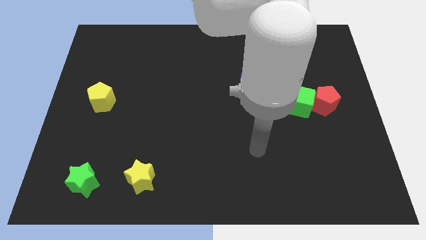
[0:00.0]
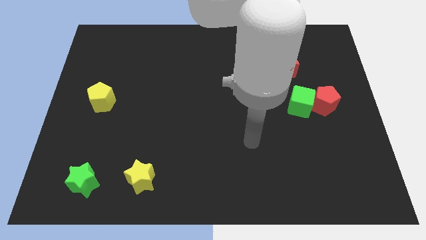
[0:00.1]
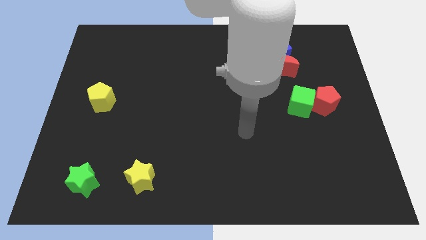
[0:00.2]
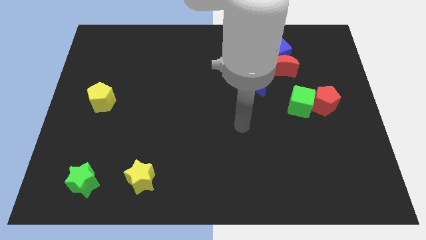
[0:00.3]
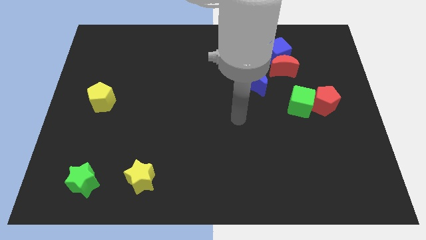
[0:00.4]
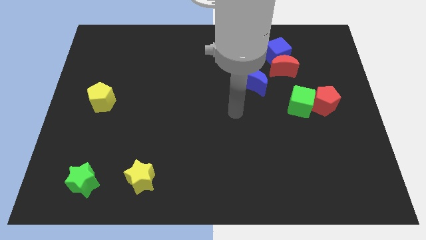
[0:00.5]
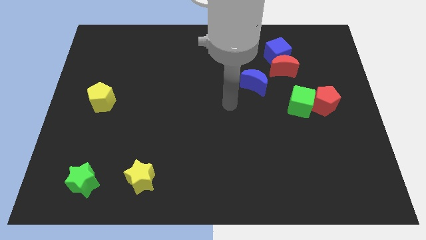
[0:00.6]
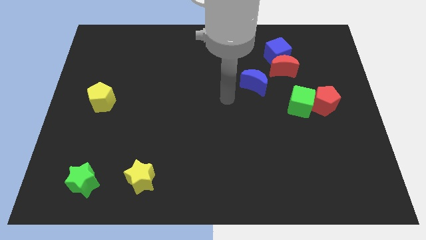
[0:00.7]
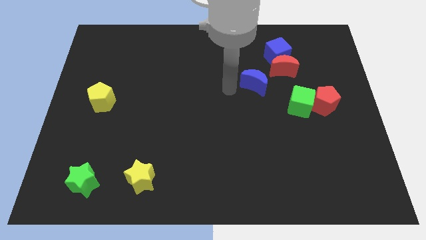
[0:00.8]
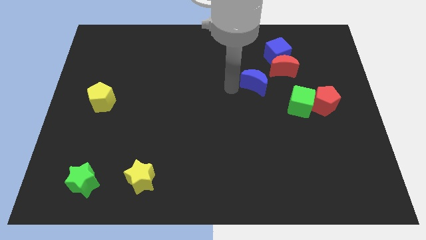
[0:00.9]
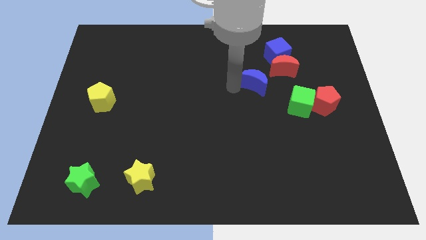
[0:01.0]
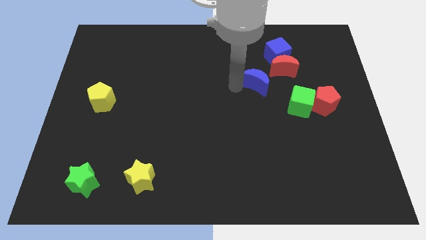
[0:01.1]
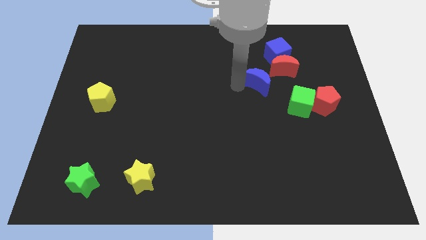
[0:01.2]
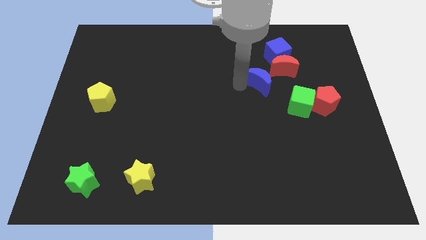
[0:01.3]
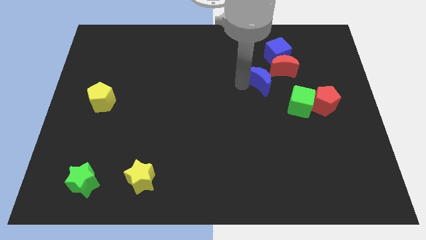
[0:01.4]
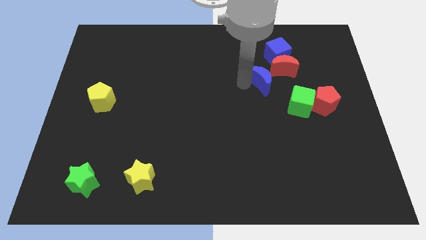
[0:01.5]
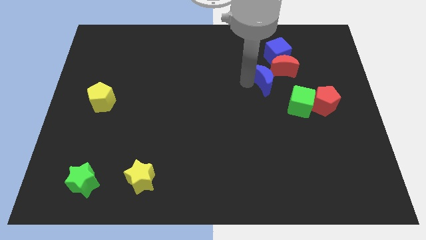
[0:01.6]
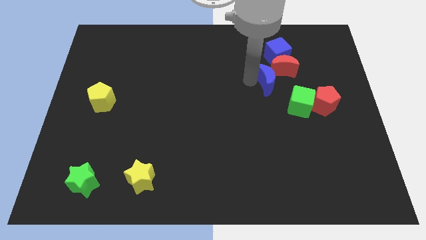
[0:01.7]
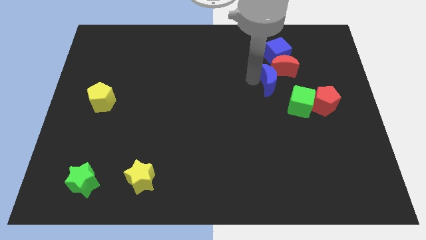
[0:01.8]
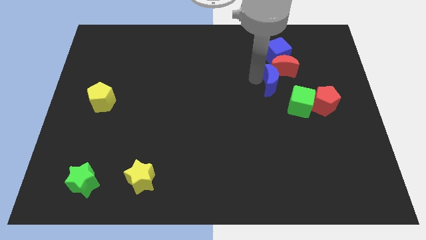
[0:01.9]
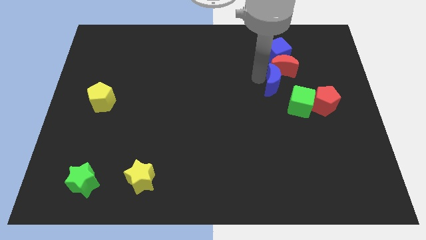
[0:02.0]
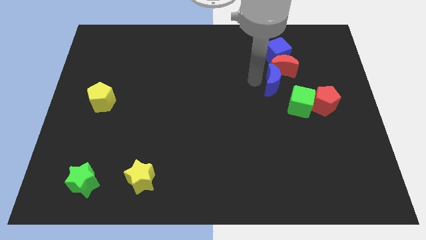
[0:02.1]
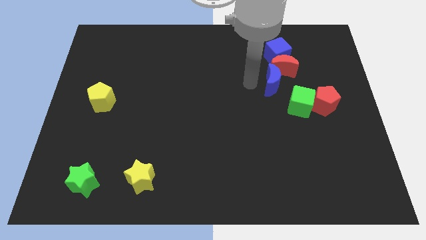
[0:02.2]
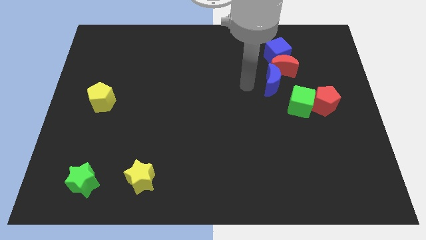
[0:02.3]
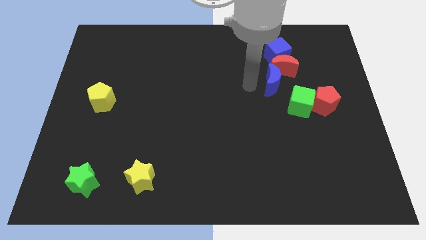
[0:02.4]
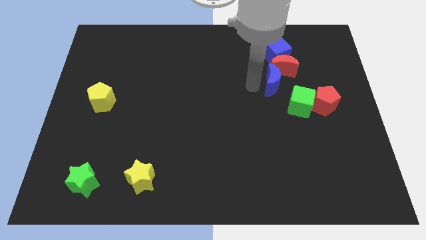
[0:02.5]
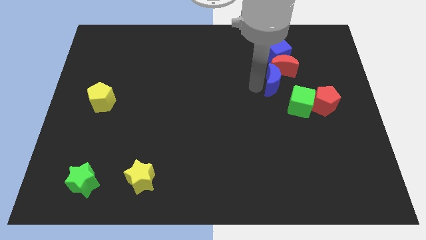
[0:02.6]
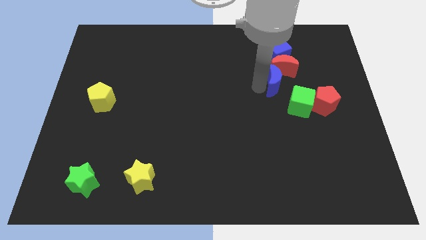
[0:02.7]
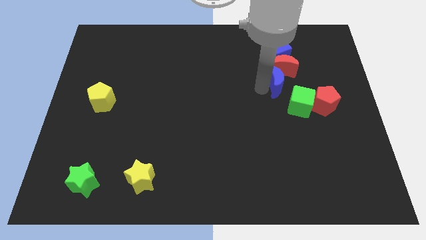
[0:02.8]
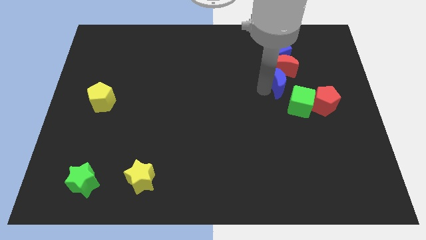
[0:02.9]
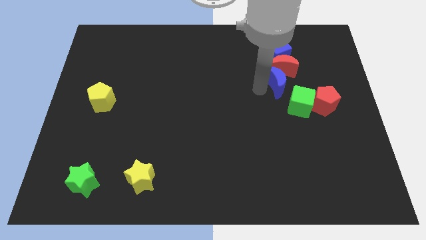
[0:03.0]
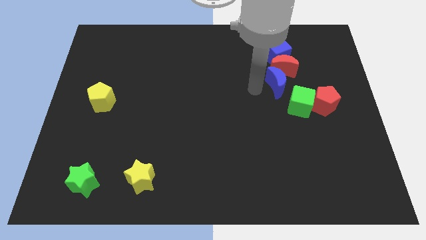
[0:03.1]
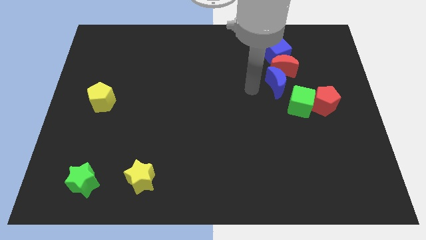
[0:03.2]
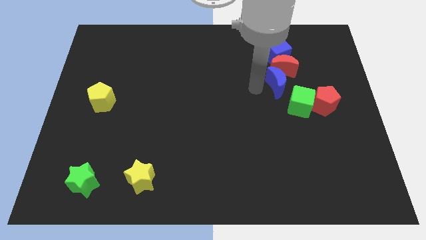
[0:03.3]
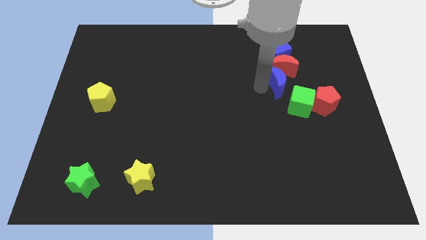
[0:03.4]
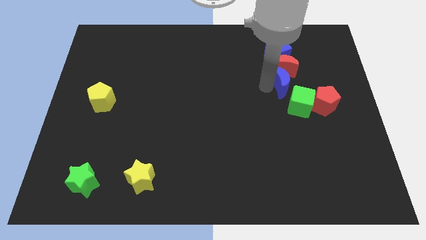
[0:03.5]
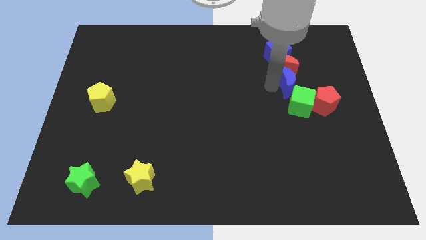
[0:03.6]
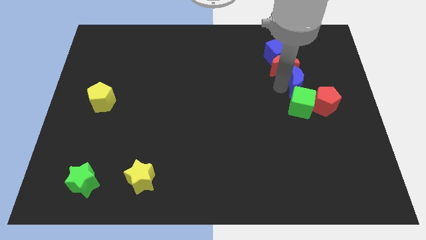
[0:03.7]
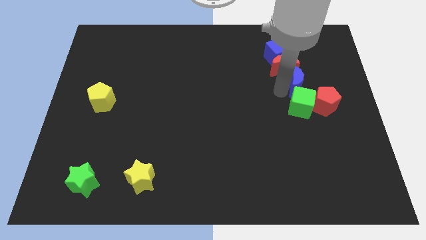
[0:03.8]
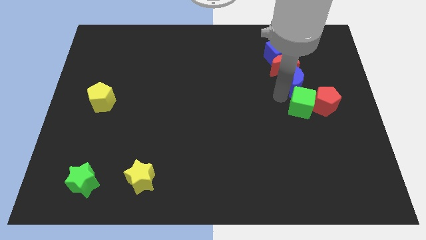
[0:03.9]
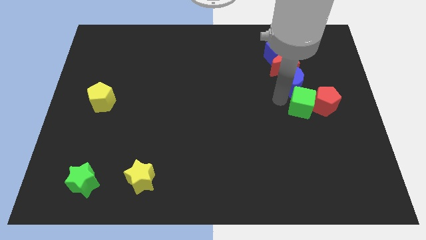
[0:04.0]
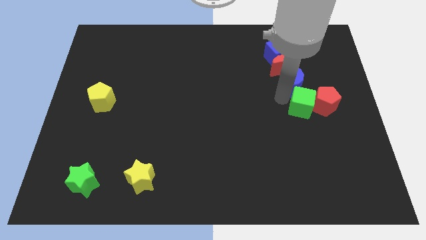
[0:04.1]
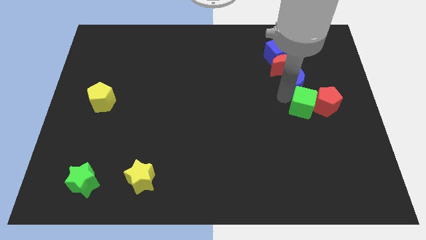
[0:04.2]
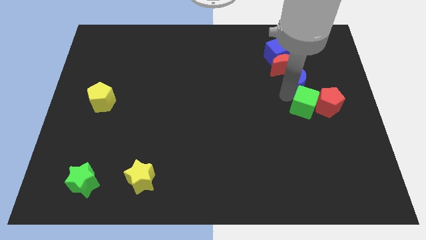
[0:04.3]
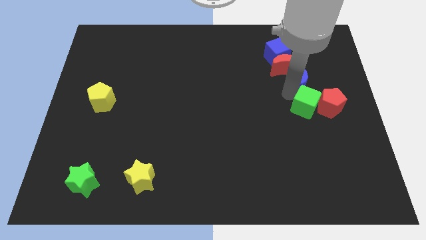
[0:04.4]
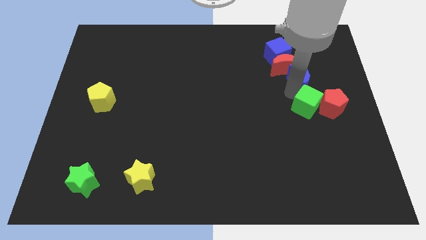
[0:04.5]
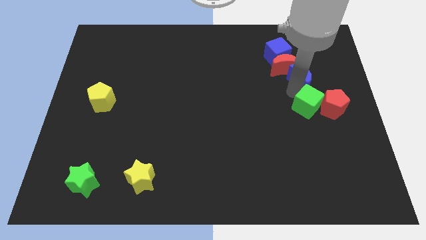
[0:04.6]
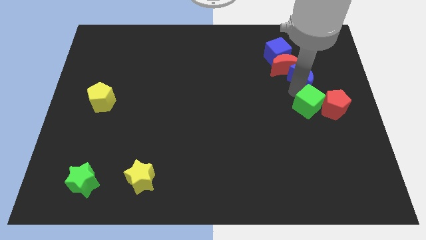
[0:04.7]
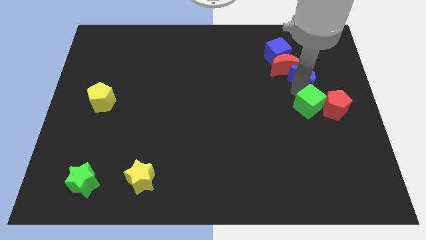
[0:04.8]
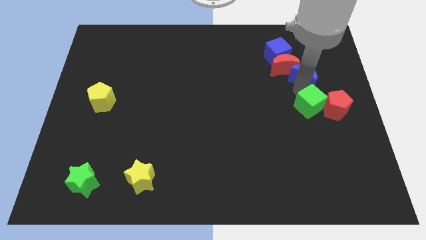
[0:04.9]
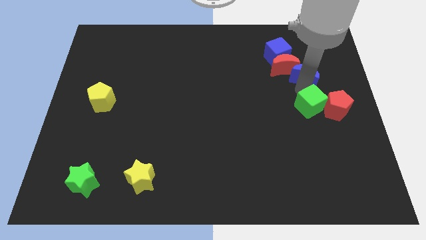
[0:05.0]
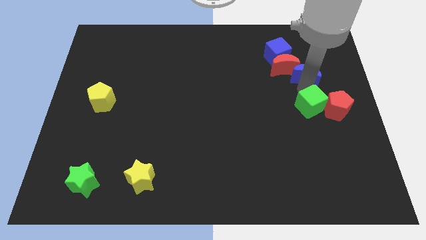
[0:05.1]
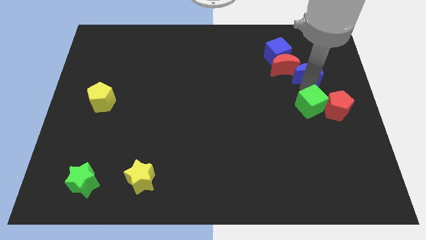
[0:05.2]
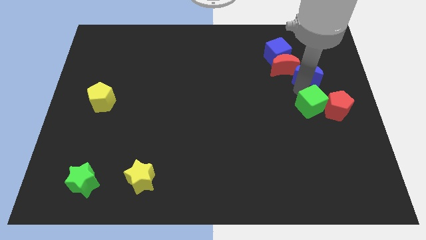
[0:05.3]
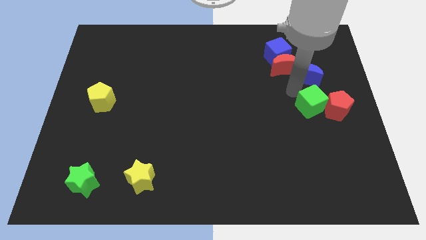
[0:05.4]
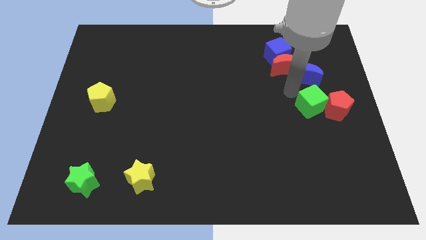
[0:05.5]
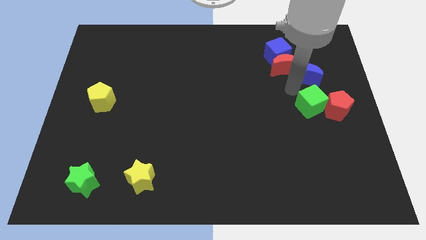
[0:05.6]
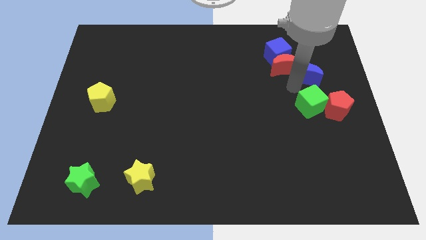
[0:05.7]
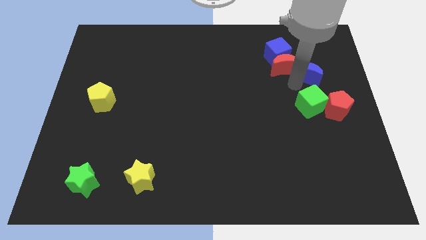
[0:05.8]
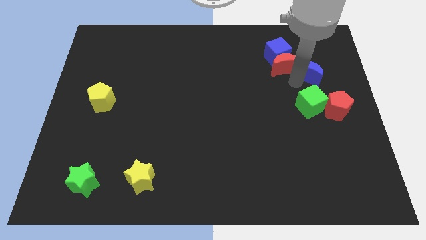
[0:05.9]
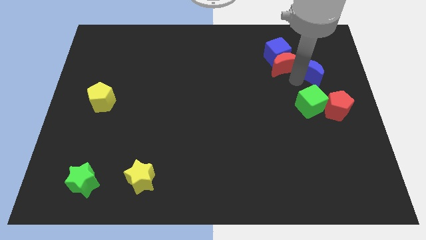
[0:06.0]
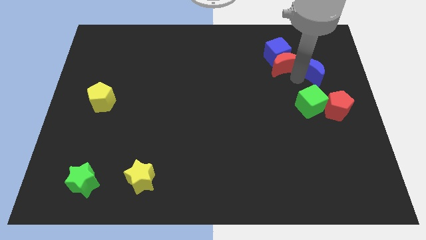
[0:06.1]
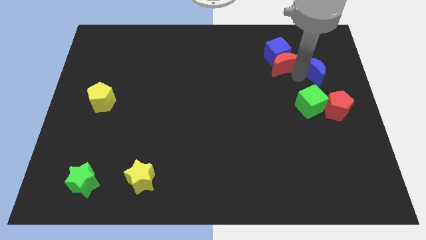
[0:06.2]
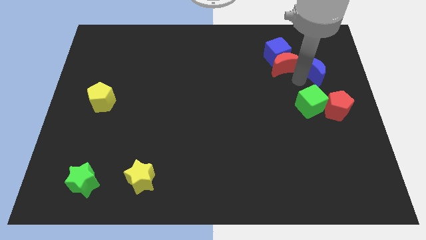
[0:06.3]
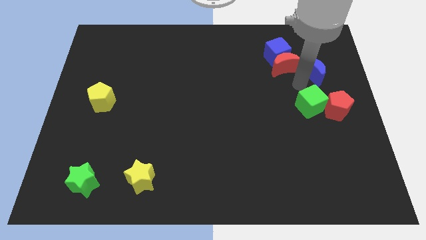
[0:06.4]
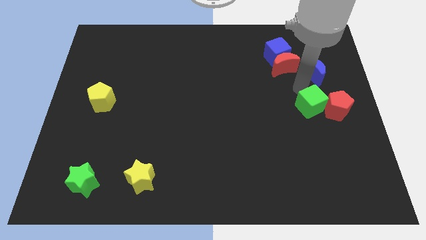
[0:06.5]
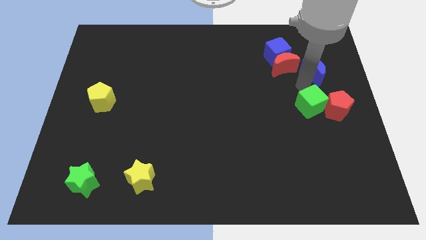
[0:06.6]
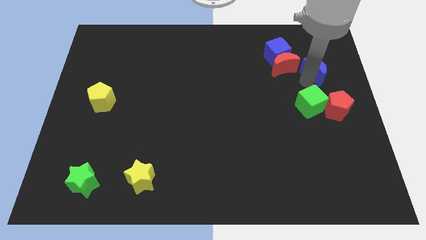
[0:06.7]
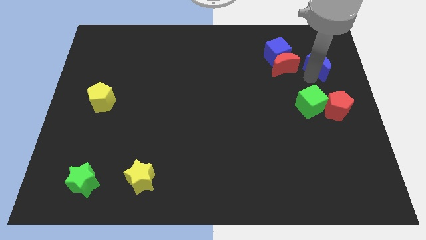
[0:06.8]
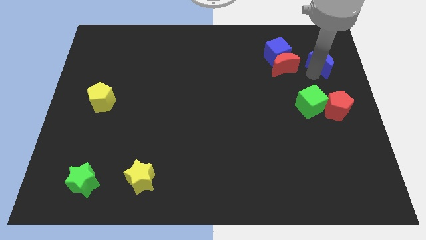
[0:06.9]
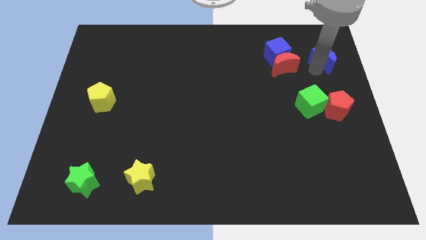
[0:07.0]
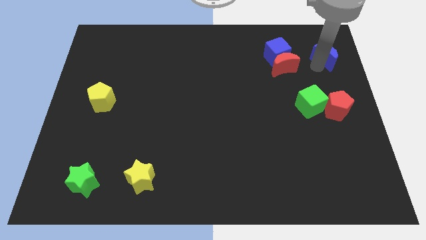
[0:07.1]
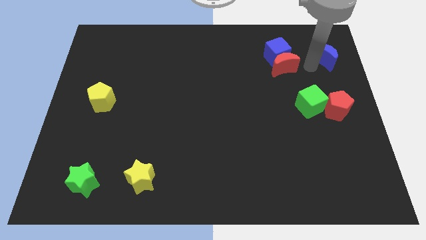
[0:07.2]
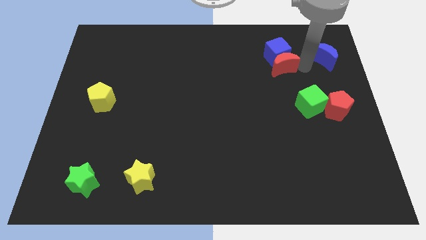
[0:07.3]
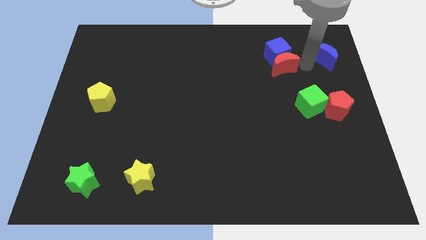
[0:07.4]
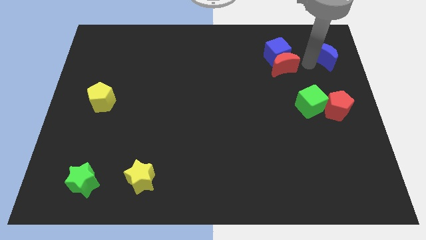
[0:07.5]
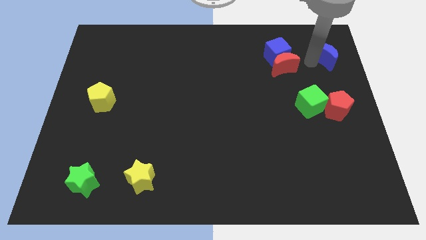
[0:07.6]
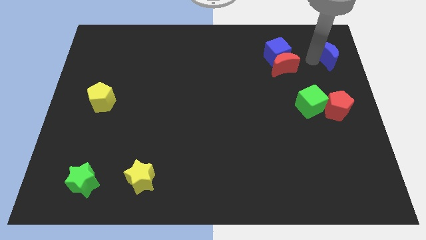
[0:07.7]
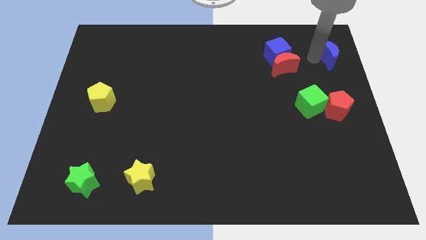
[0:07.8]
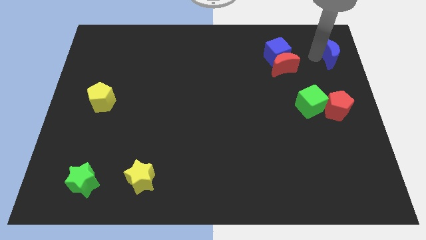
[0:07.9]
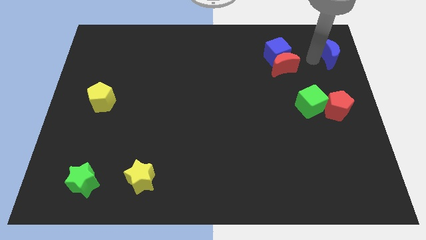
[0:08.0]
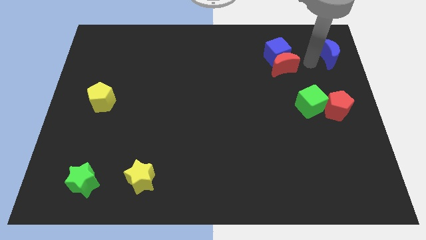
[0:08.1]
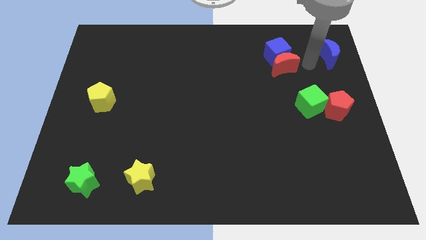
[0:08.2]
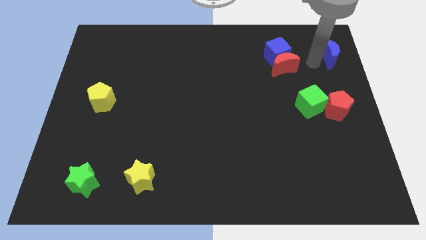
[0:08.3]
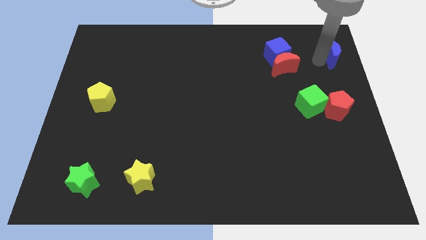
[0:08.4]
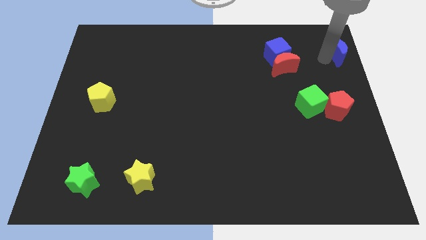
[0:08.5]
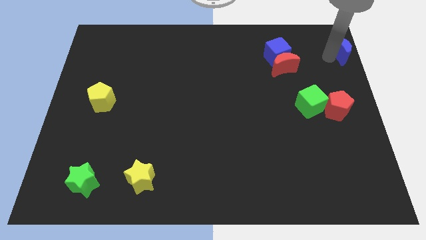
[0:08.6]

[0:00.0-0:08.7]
slide the blue moon to the top right corner
